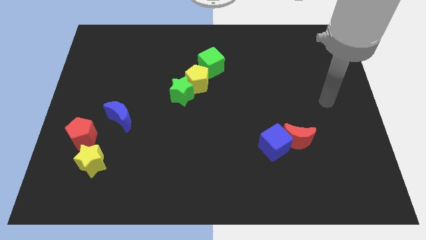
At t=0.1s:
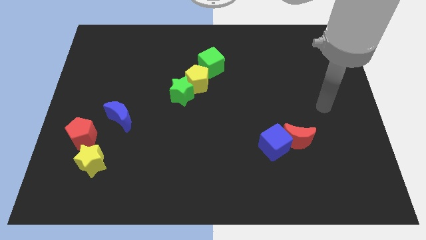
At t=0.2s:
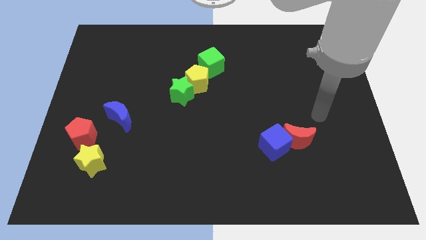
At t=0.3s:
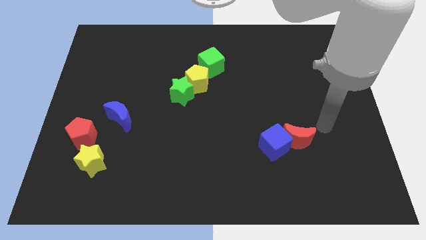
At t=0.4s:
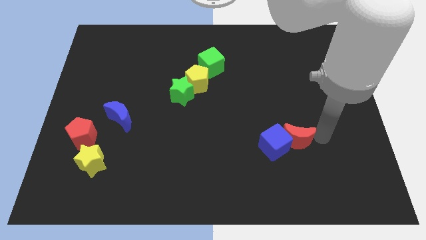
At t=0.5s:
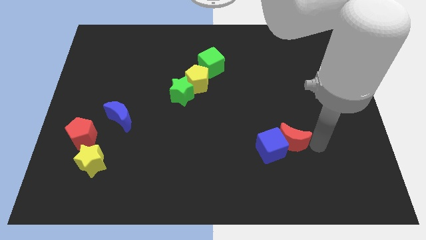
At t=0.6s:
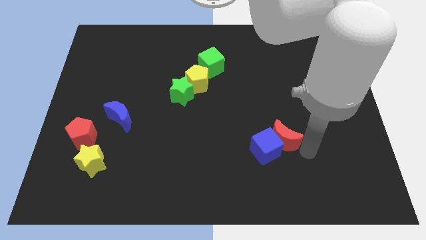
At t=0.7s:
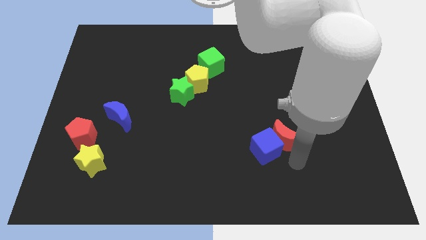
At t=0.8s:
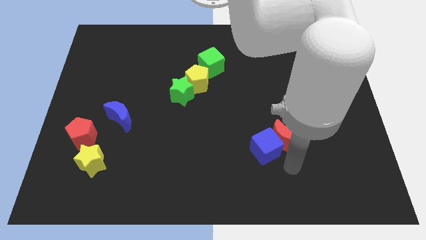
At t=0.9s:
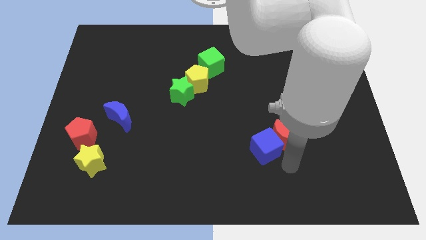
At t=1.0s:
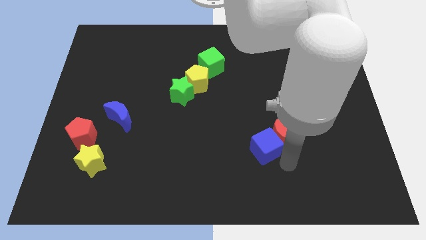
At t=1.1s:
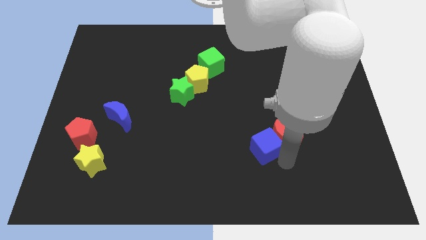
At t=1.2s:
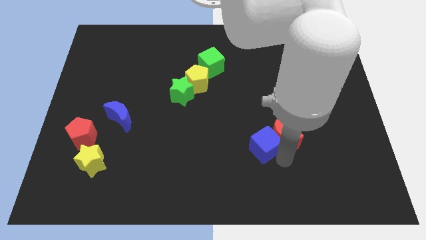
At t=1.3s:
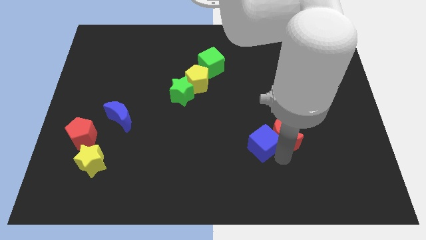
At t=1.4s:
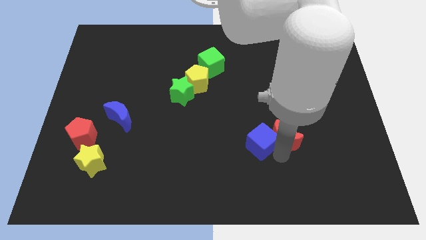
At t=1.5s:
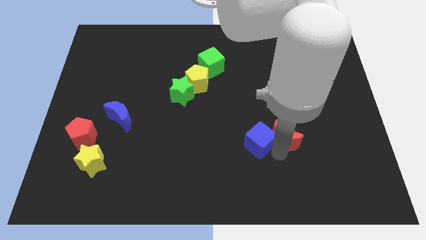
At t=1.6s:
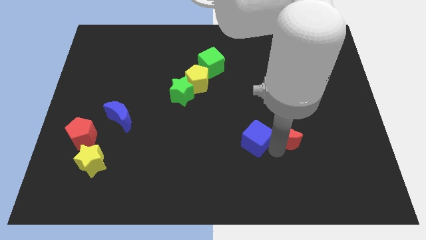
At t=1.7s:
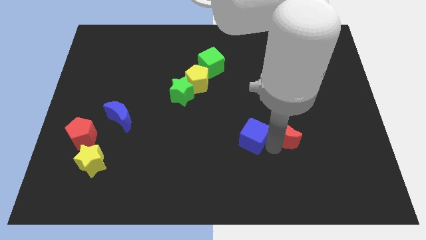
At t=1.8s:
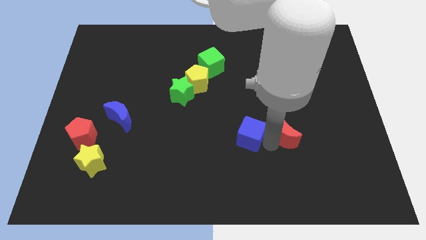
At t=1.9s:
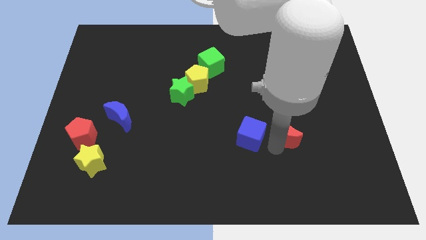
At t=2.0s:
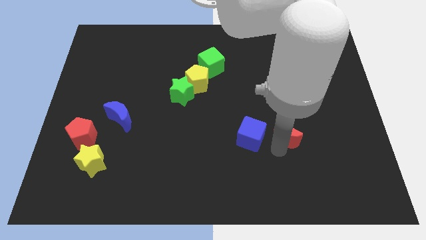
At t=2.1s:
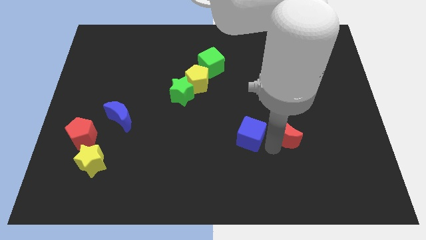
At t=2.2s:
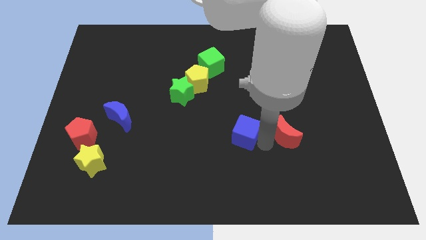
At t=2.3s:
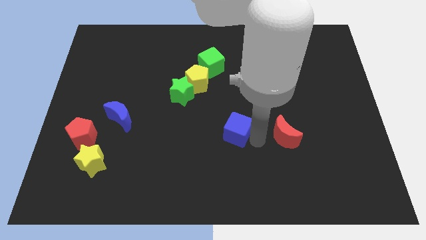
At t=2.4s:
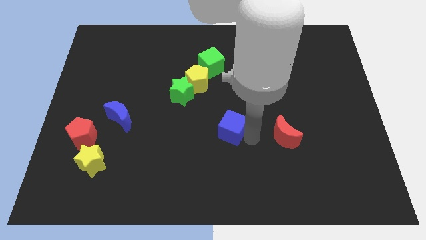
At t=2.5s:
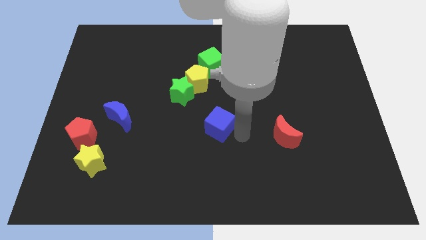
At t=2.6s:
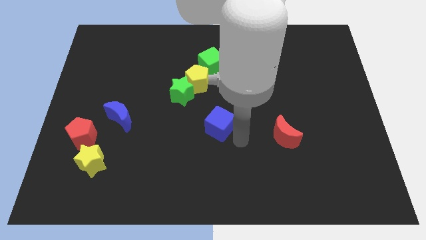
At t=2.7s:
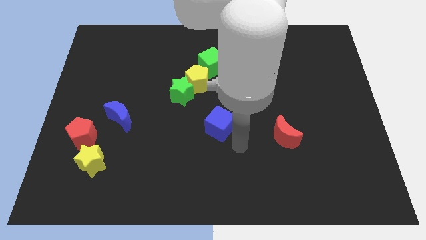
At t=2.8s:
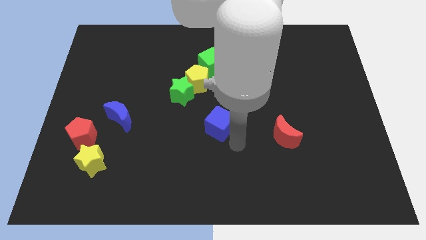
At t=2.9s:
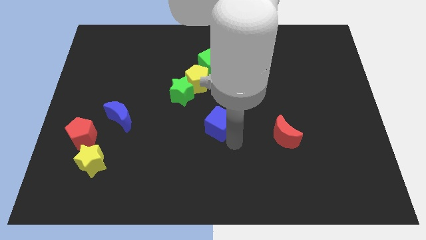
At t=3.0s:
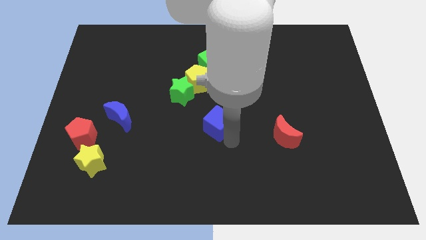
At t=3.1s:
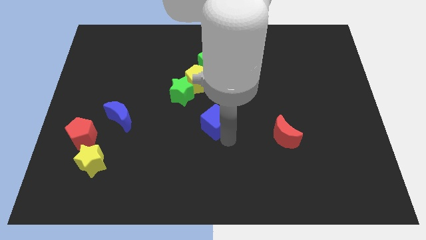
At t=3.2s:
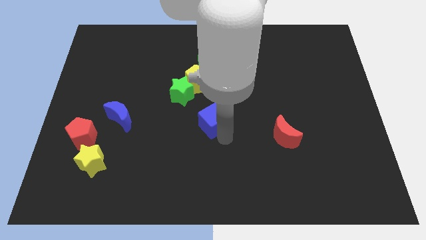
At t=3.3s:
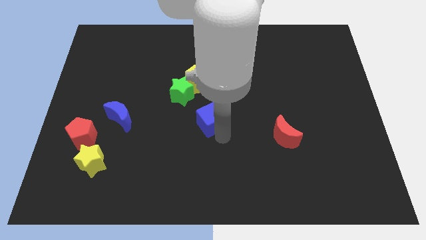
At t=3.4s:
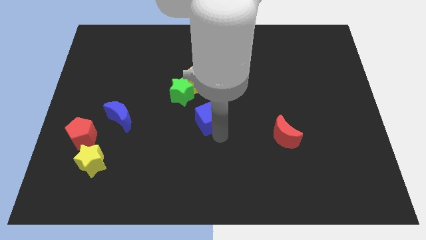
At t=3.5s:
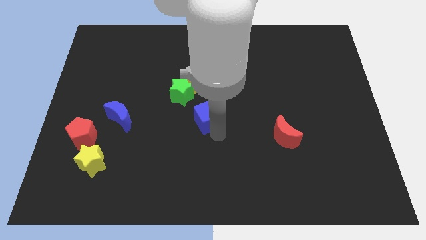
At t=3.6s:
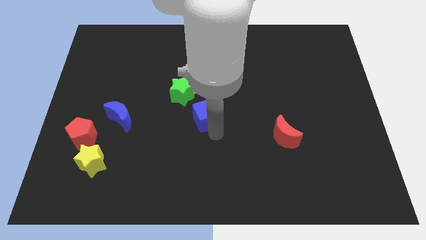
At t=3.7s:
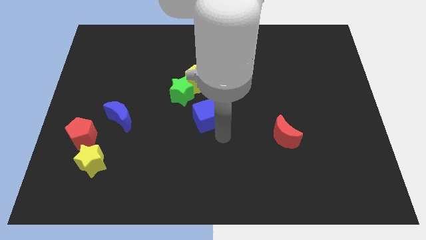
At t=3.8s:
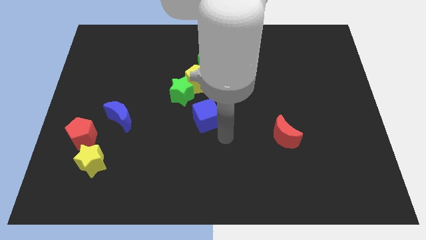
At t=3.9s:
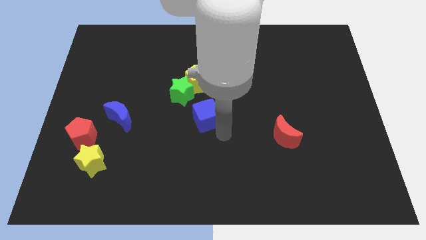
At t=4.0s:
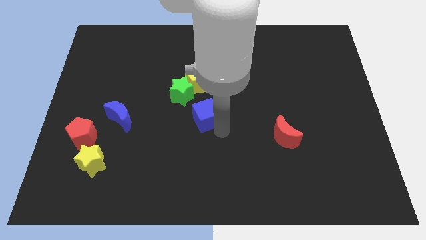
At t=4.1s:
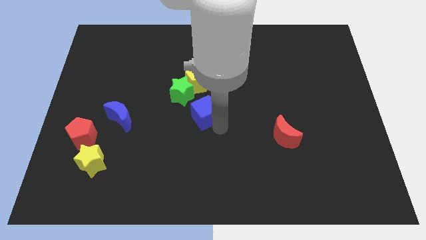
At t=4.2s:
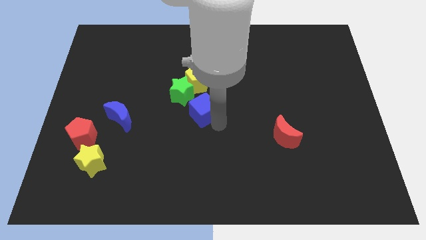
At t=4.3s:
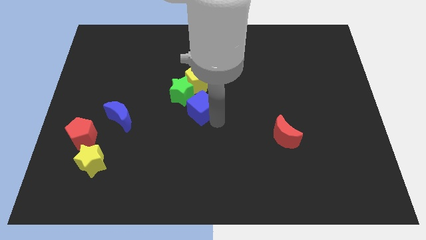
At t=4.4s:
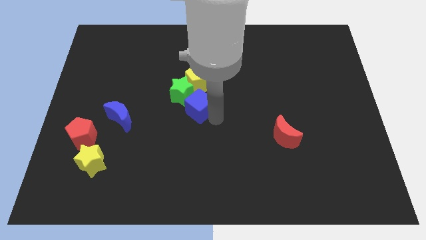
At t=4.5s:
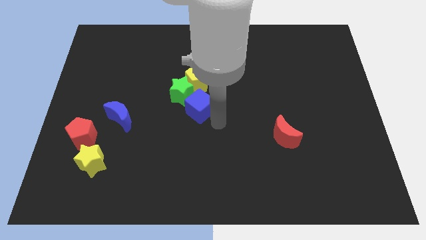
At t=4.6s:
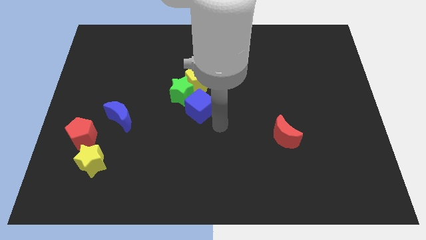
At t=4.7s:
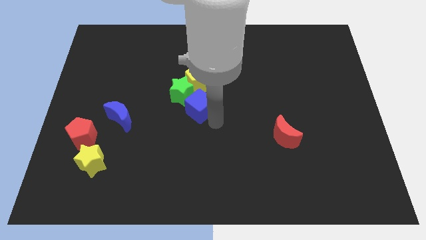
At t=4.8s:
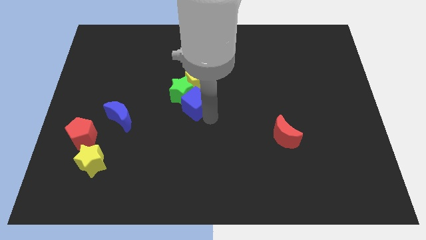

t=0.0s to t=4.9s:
move the blue cube close to the green star

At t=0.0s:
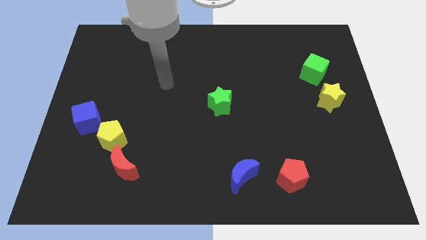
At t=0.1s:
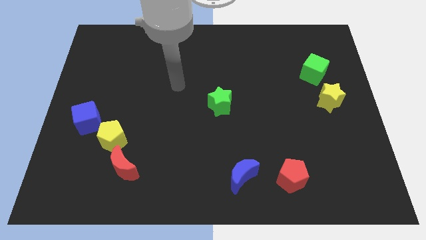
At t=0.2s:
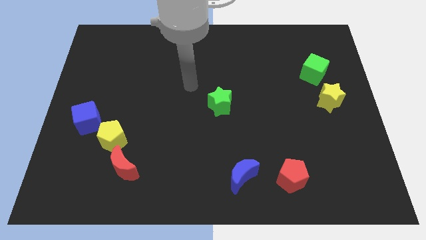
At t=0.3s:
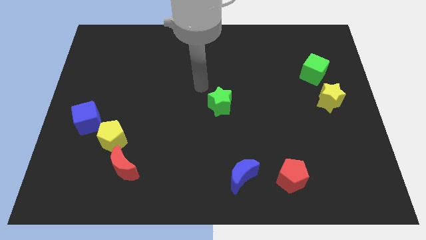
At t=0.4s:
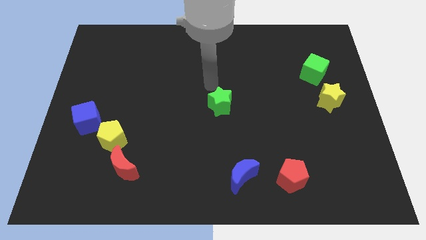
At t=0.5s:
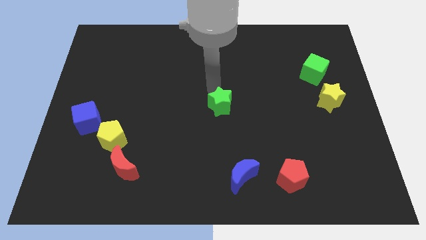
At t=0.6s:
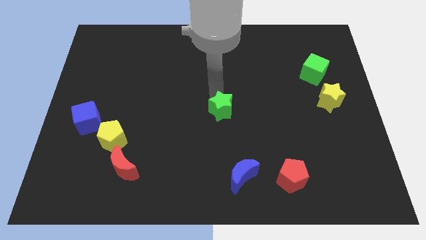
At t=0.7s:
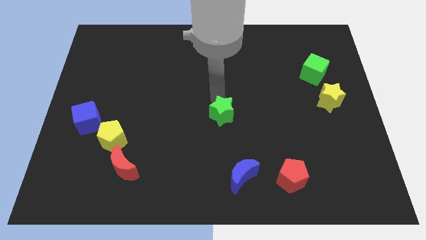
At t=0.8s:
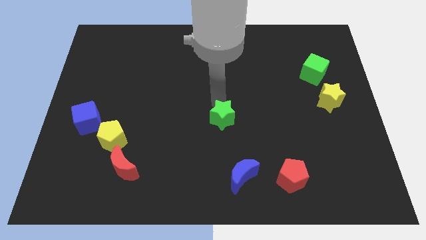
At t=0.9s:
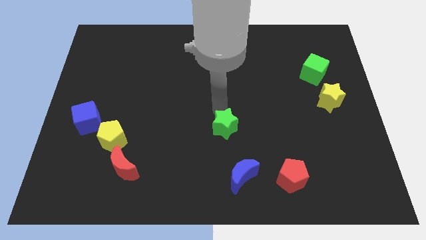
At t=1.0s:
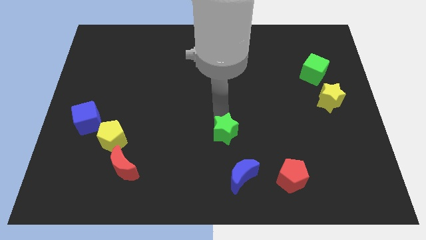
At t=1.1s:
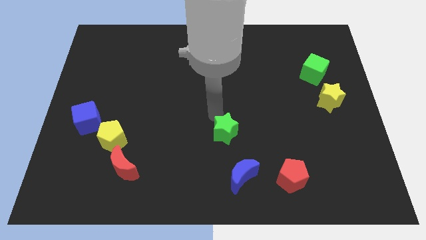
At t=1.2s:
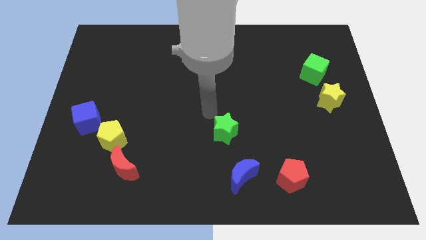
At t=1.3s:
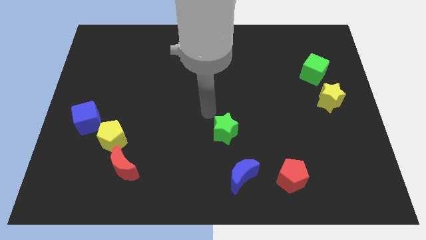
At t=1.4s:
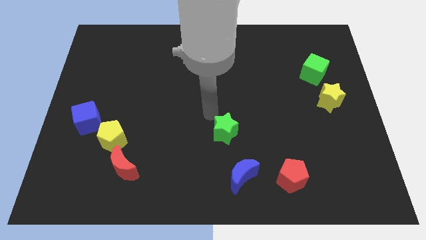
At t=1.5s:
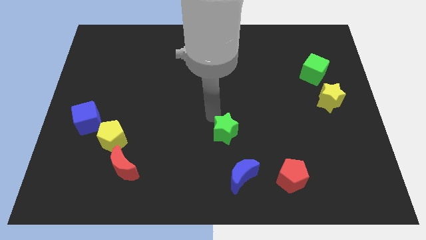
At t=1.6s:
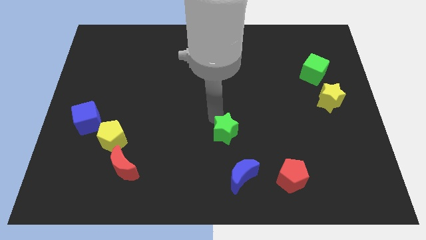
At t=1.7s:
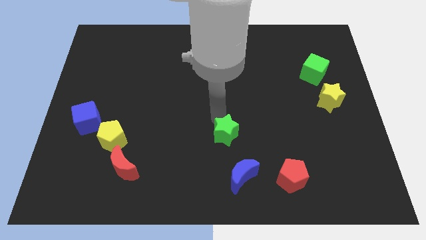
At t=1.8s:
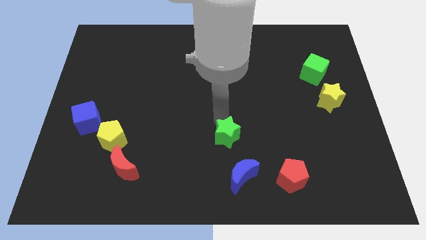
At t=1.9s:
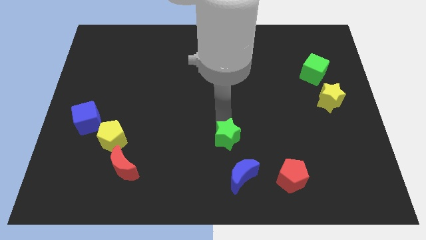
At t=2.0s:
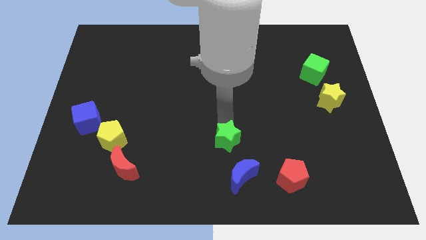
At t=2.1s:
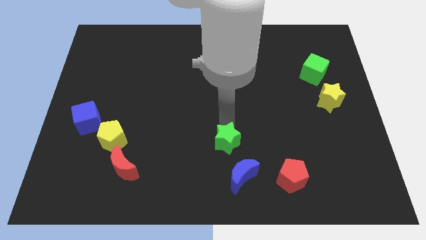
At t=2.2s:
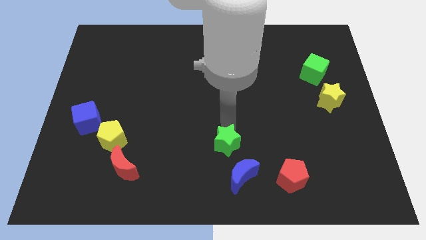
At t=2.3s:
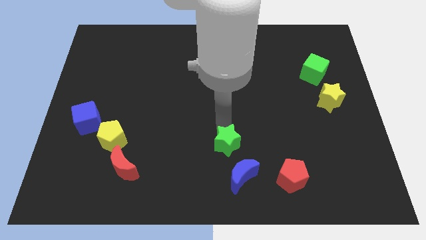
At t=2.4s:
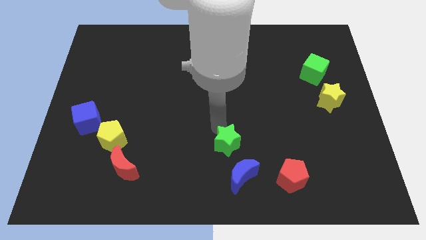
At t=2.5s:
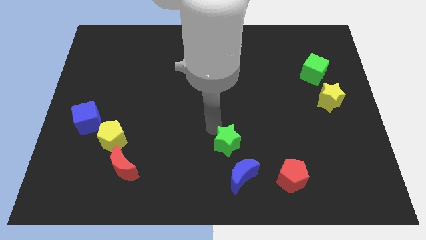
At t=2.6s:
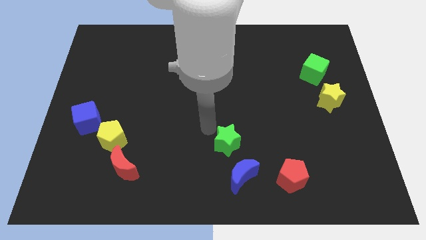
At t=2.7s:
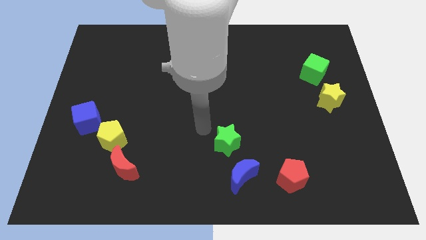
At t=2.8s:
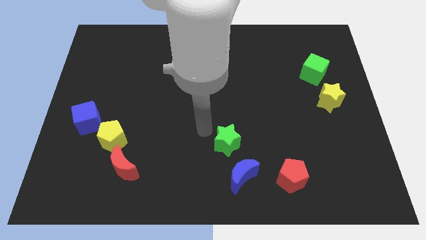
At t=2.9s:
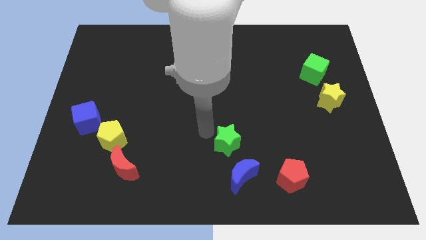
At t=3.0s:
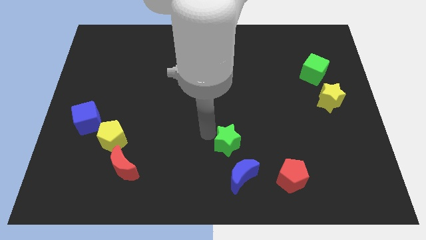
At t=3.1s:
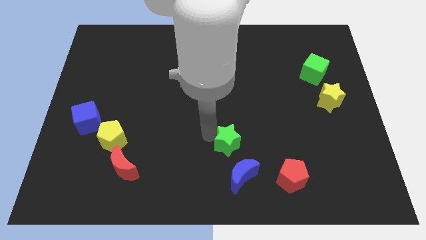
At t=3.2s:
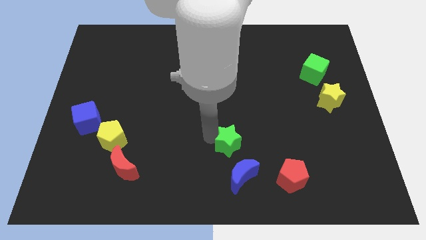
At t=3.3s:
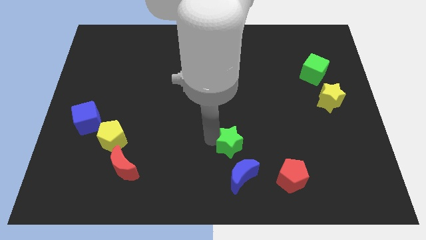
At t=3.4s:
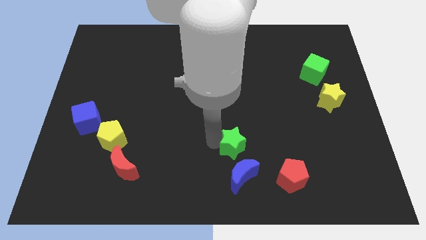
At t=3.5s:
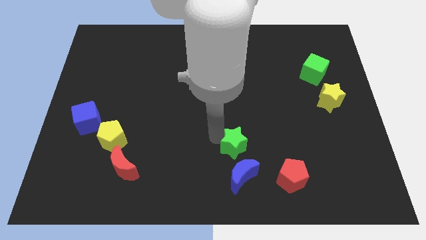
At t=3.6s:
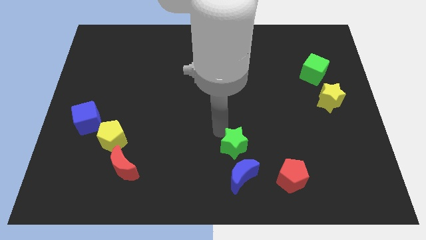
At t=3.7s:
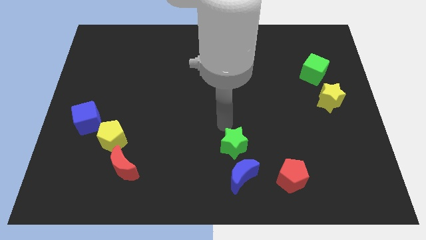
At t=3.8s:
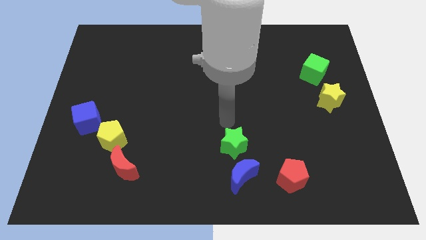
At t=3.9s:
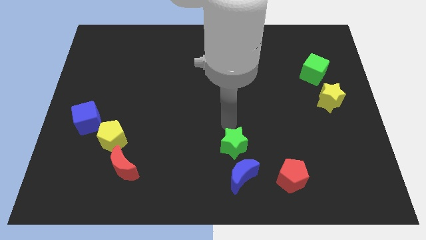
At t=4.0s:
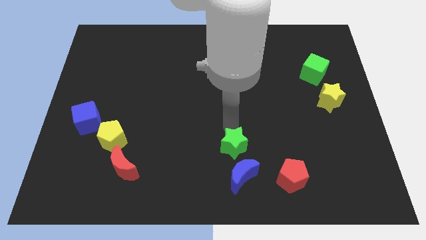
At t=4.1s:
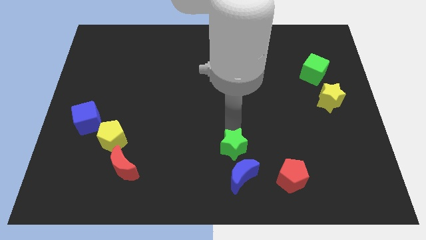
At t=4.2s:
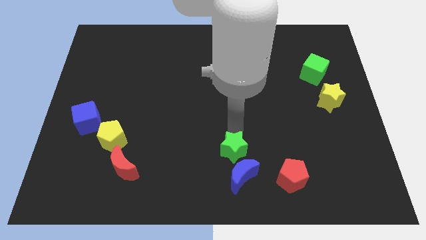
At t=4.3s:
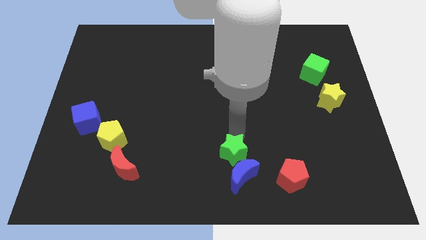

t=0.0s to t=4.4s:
slide the green star close to the blue moon
